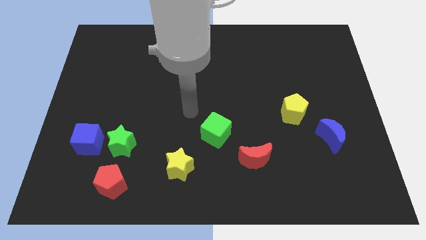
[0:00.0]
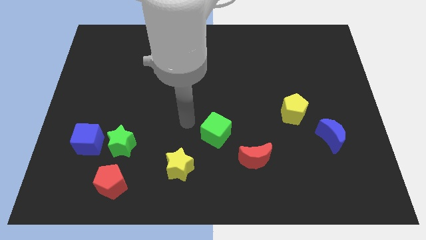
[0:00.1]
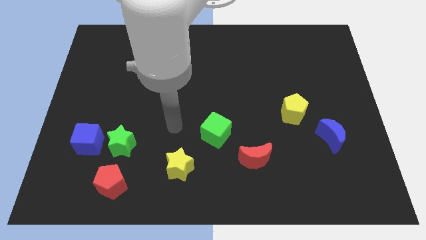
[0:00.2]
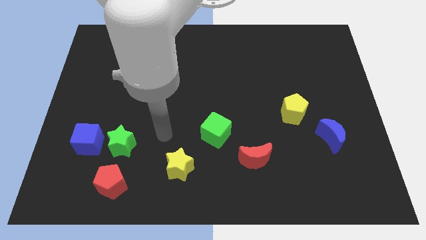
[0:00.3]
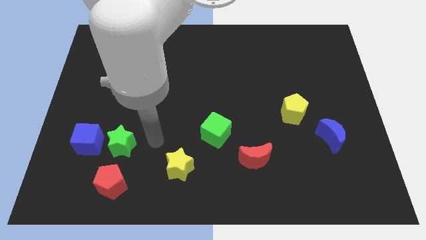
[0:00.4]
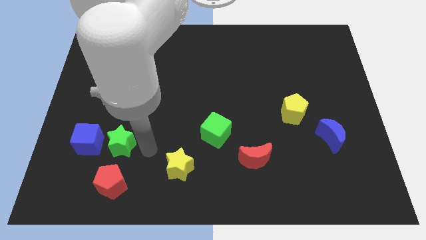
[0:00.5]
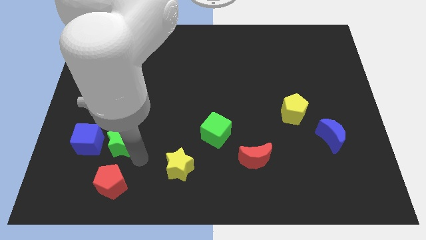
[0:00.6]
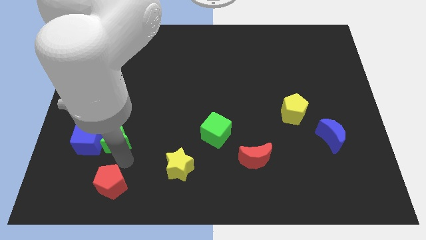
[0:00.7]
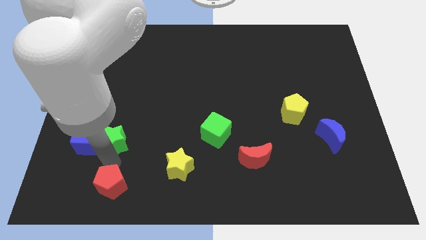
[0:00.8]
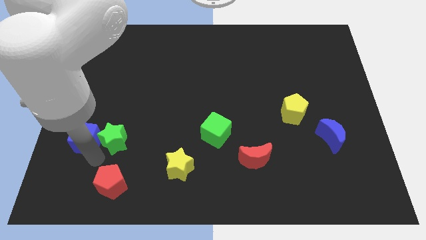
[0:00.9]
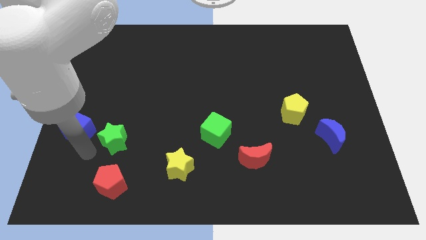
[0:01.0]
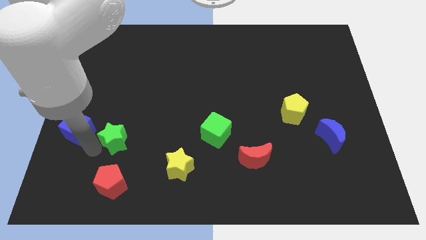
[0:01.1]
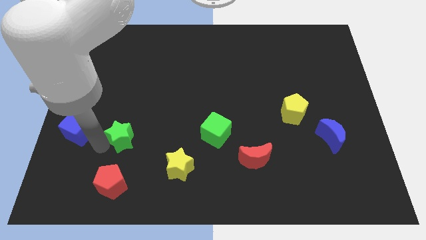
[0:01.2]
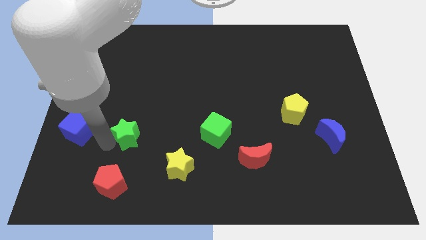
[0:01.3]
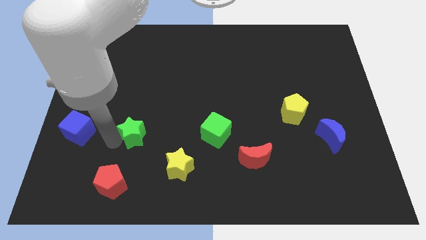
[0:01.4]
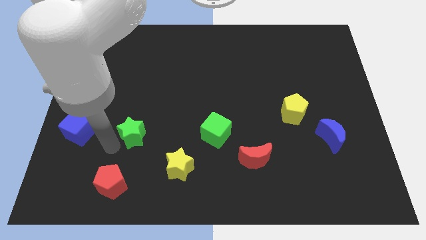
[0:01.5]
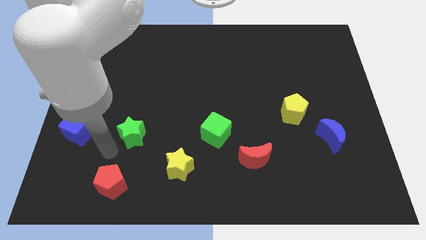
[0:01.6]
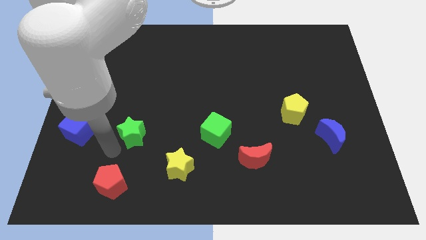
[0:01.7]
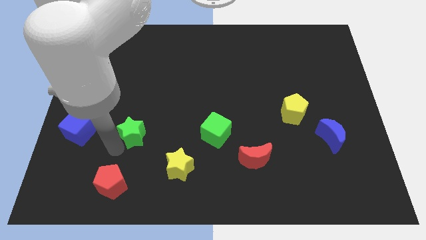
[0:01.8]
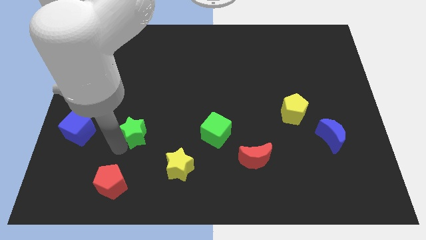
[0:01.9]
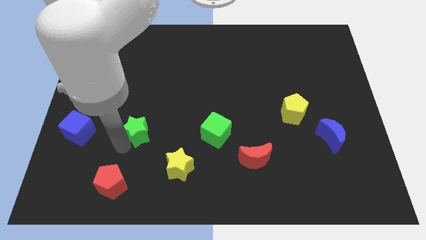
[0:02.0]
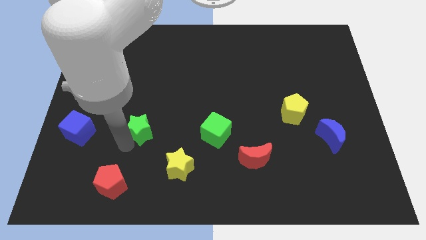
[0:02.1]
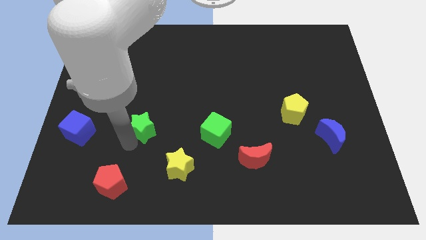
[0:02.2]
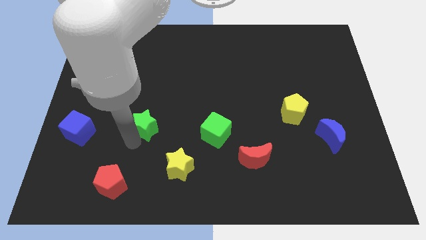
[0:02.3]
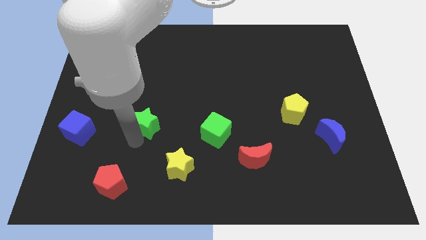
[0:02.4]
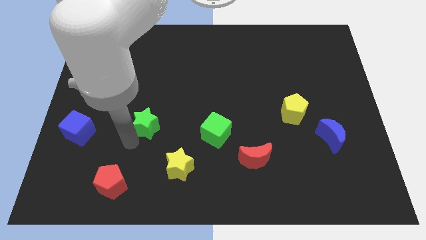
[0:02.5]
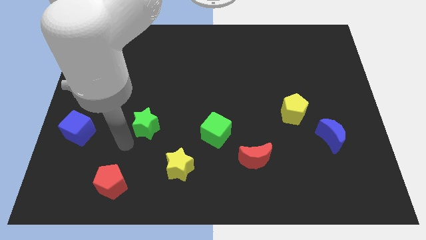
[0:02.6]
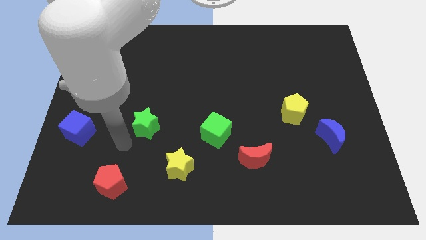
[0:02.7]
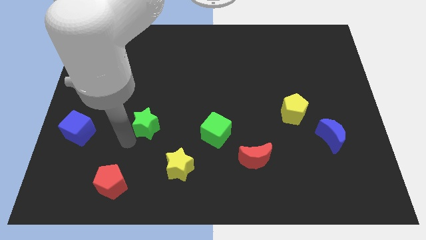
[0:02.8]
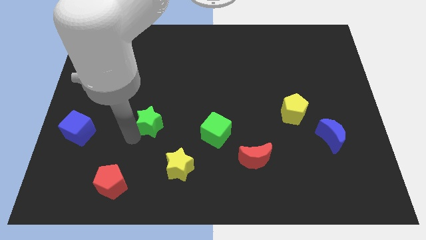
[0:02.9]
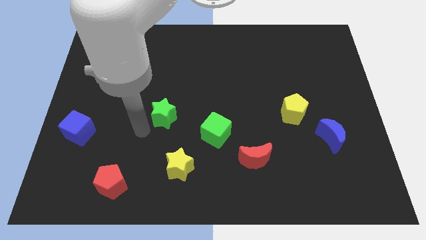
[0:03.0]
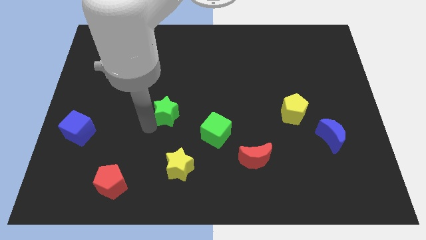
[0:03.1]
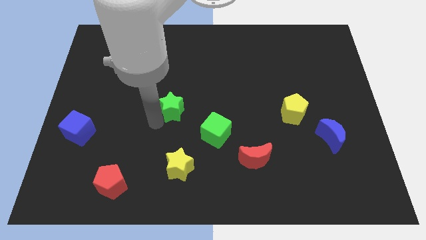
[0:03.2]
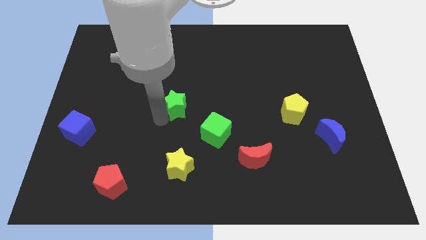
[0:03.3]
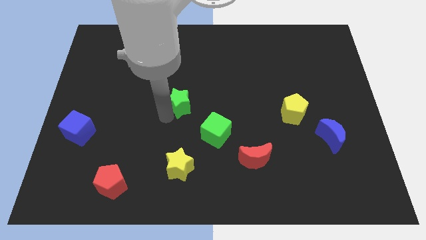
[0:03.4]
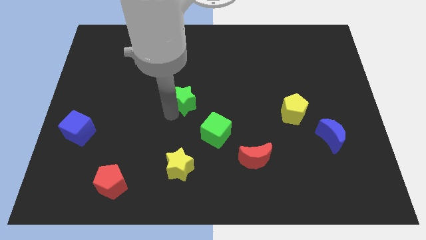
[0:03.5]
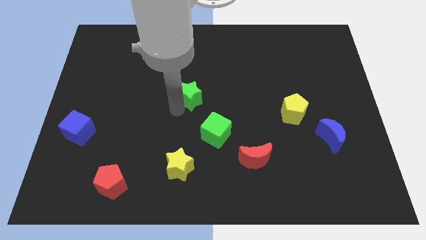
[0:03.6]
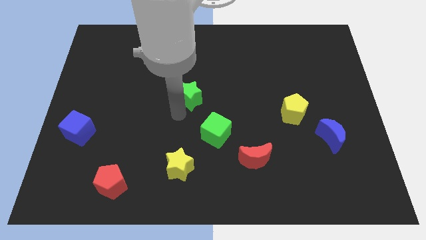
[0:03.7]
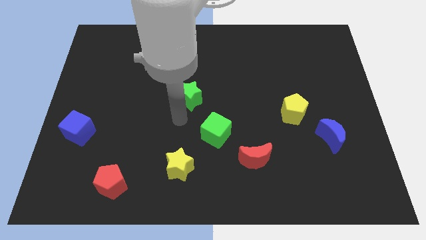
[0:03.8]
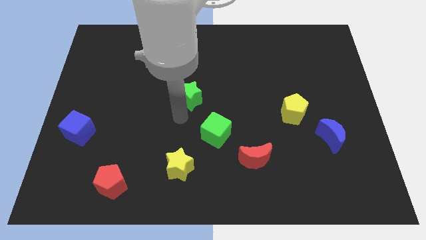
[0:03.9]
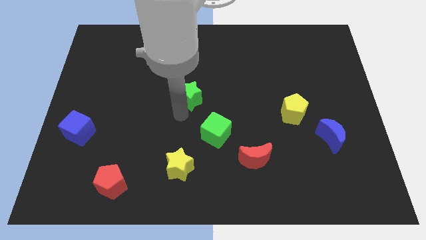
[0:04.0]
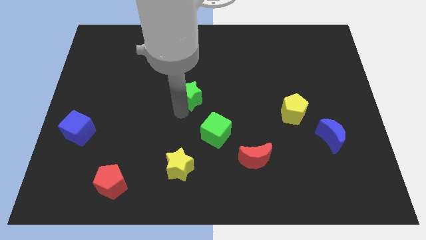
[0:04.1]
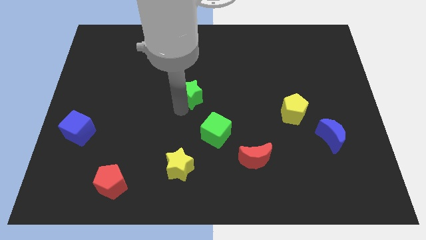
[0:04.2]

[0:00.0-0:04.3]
move the green star up and then right

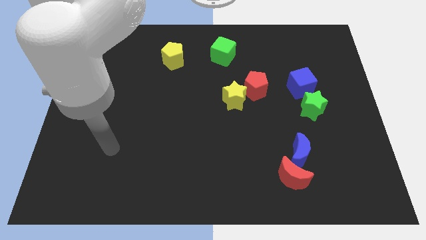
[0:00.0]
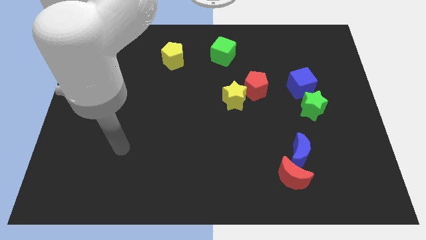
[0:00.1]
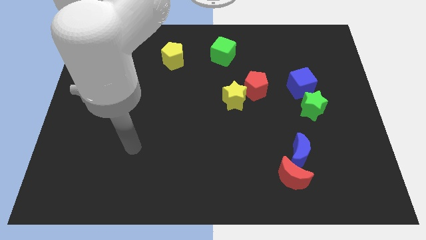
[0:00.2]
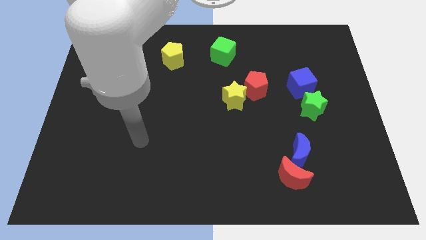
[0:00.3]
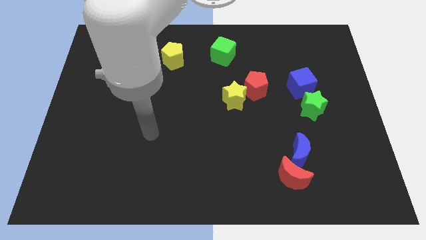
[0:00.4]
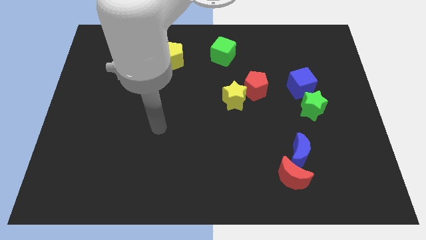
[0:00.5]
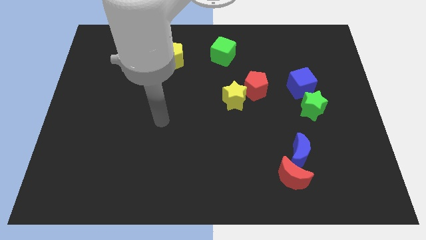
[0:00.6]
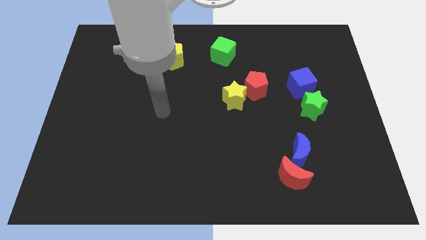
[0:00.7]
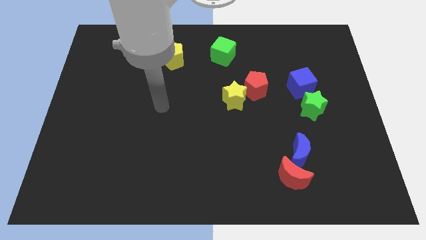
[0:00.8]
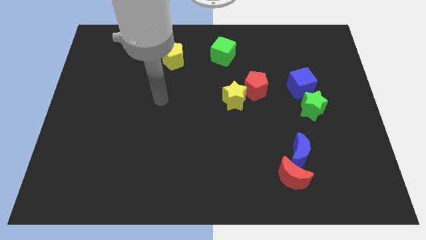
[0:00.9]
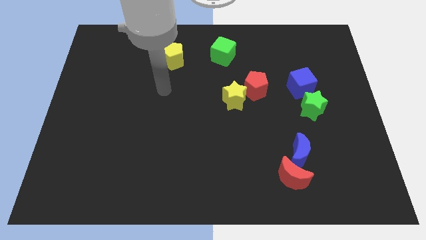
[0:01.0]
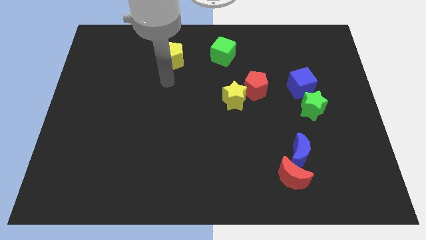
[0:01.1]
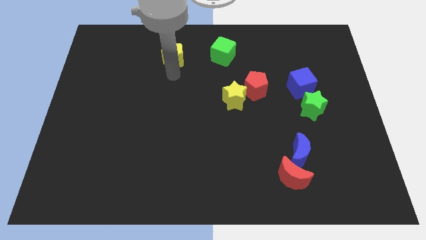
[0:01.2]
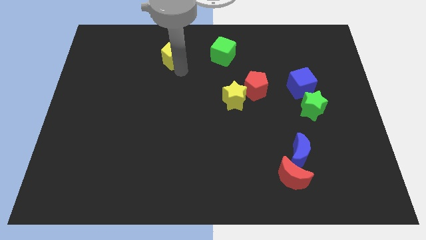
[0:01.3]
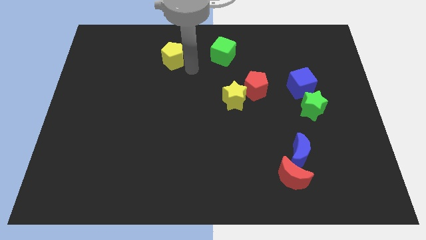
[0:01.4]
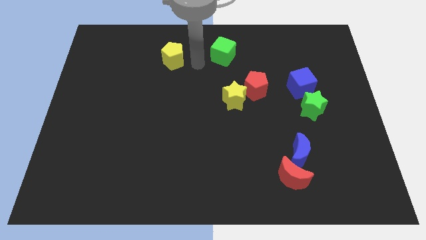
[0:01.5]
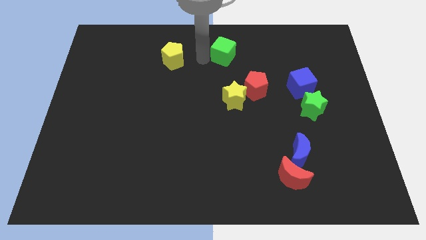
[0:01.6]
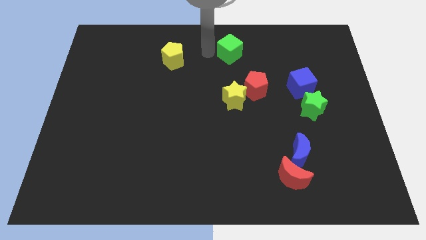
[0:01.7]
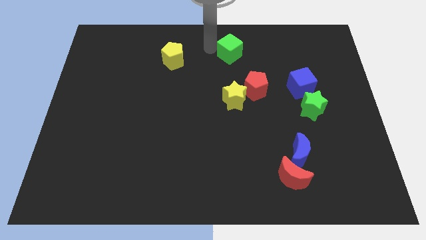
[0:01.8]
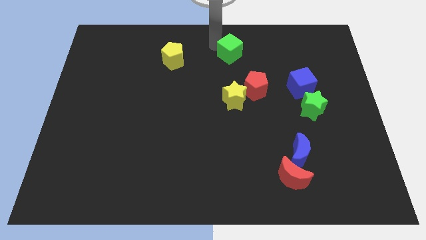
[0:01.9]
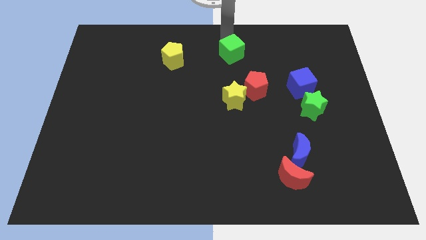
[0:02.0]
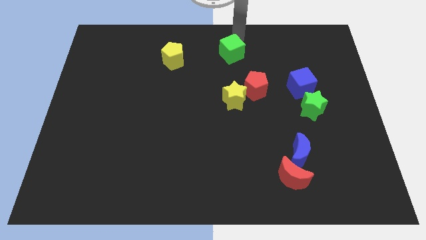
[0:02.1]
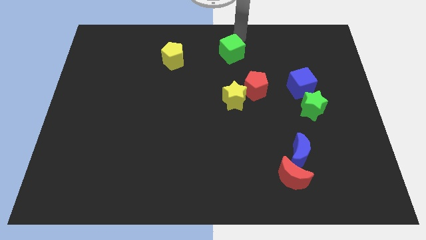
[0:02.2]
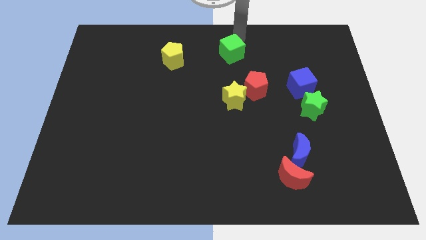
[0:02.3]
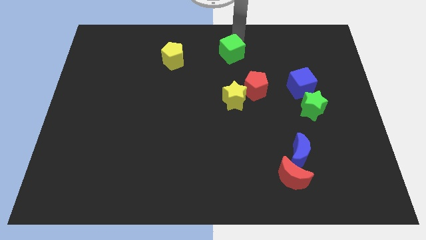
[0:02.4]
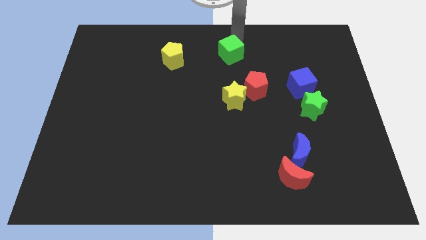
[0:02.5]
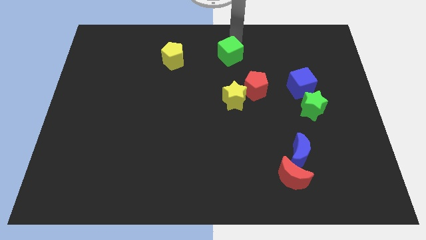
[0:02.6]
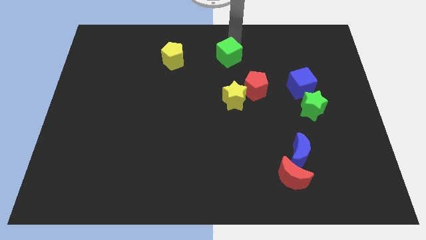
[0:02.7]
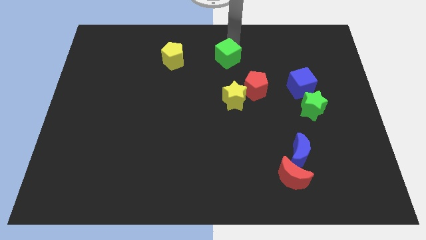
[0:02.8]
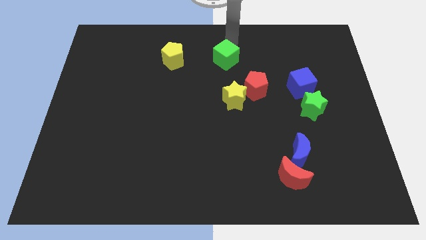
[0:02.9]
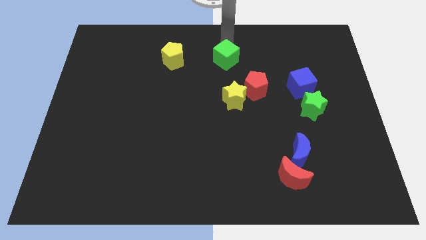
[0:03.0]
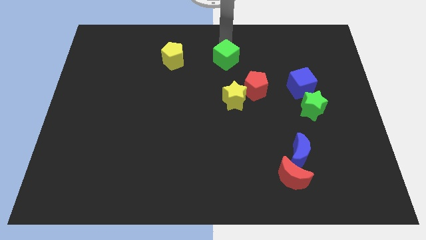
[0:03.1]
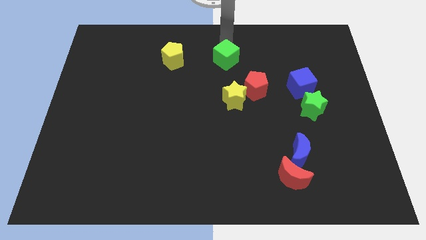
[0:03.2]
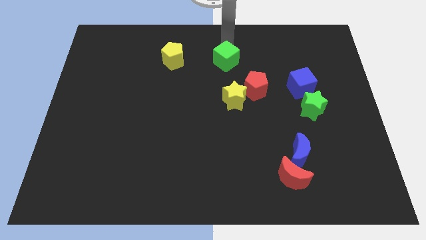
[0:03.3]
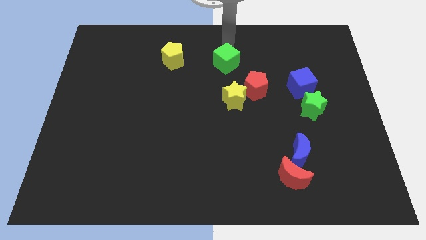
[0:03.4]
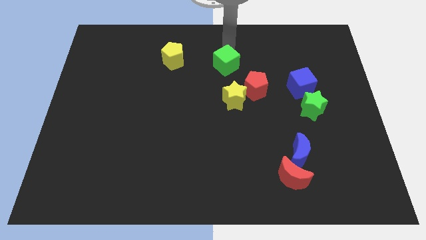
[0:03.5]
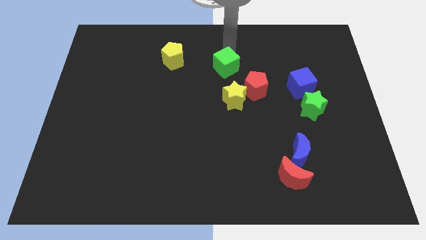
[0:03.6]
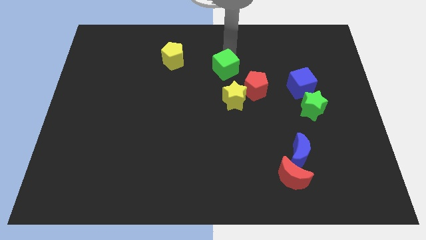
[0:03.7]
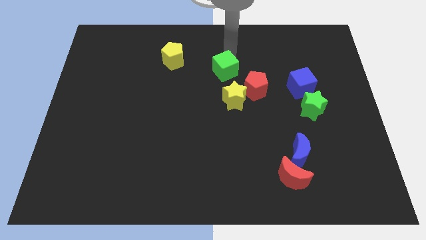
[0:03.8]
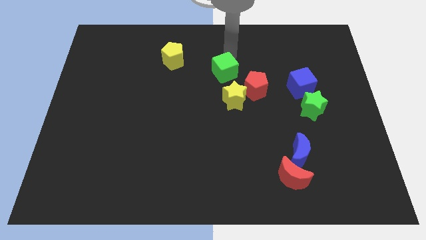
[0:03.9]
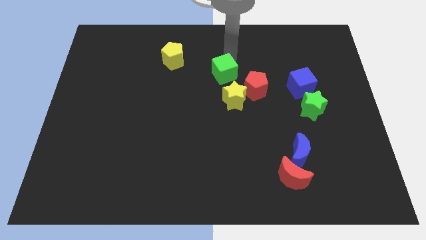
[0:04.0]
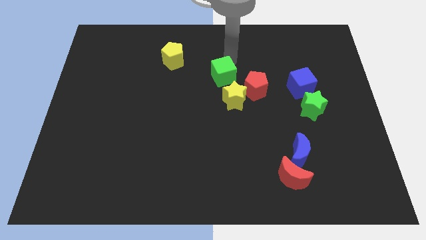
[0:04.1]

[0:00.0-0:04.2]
push the green cube downwards somewhat
